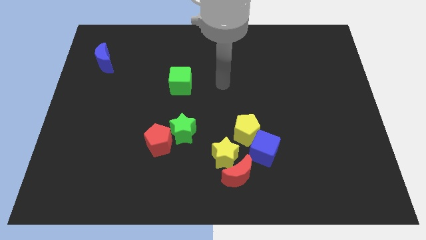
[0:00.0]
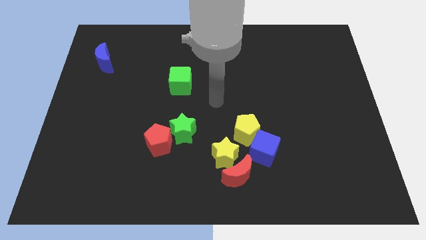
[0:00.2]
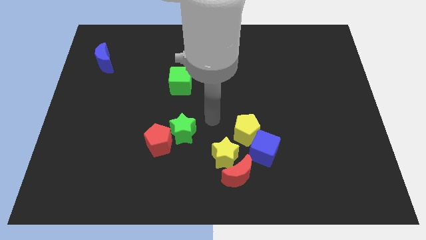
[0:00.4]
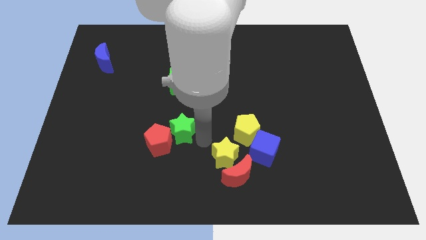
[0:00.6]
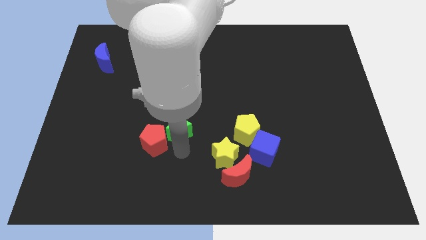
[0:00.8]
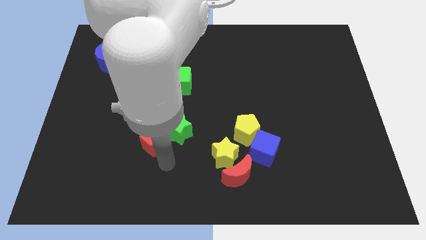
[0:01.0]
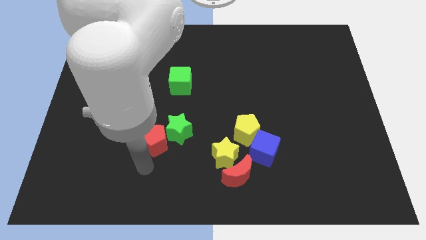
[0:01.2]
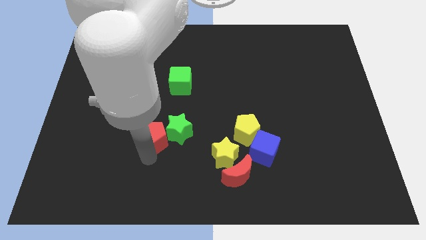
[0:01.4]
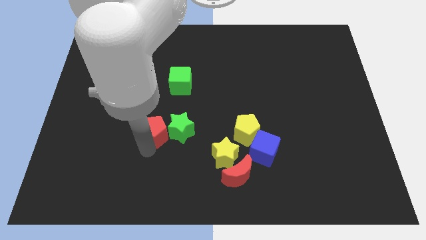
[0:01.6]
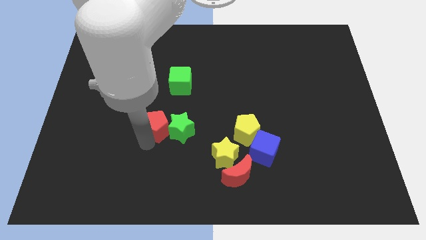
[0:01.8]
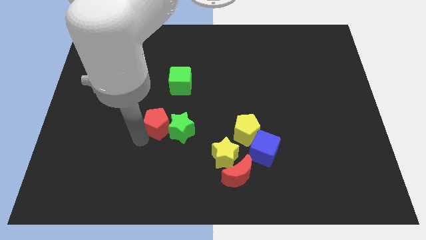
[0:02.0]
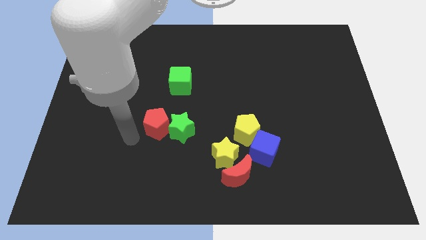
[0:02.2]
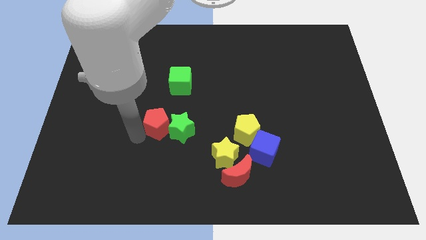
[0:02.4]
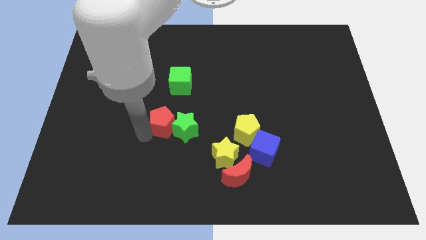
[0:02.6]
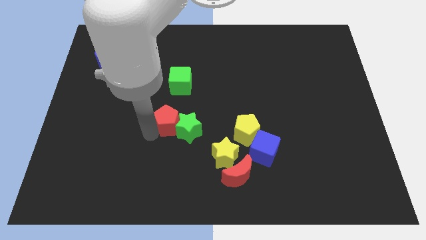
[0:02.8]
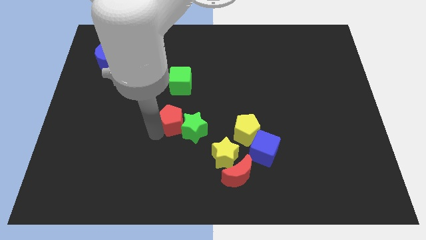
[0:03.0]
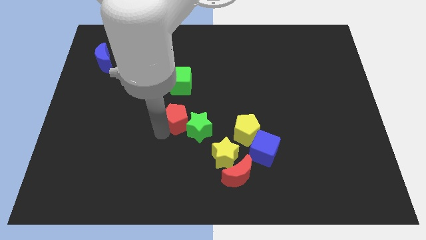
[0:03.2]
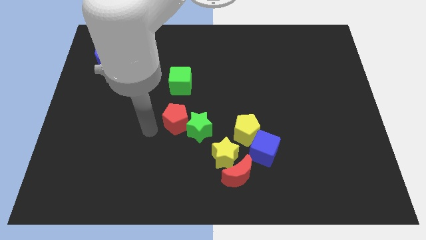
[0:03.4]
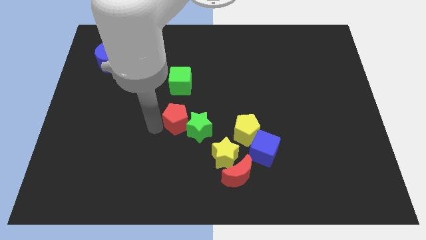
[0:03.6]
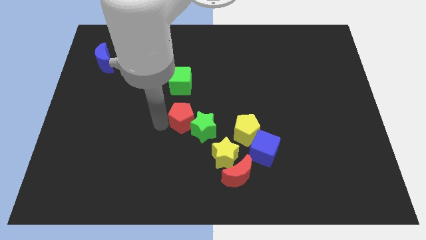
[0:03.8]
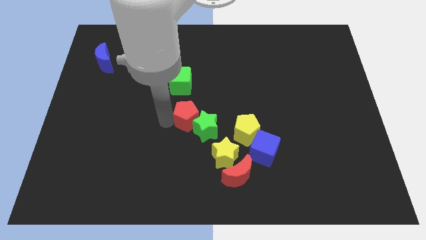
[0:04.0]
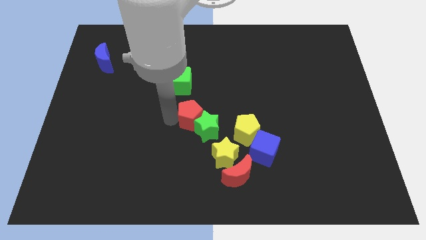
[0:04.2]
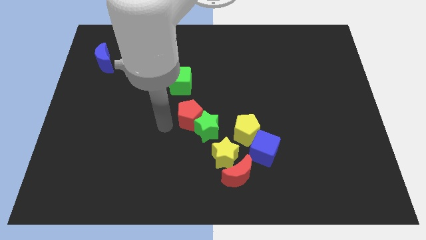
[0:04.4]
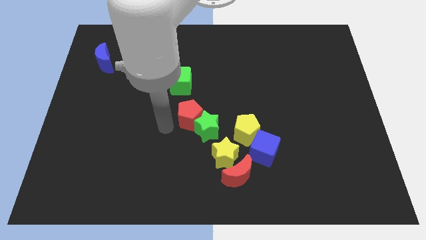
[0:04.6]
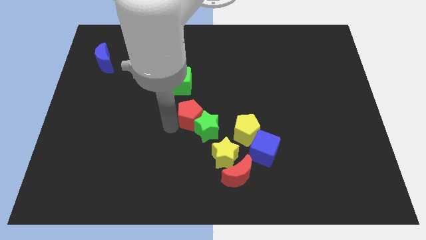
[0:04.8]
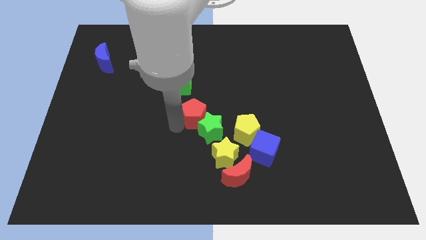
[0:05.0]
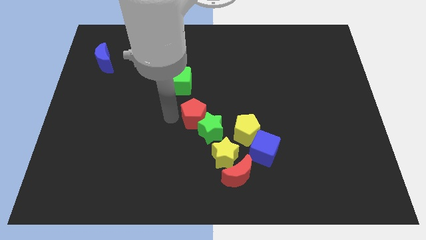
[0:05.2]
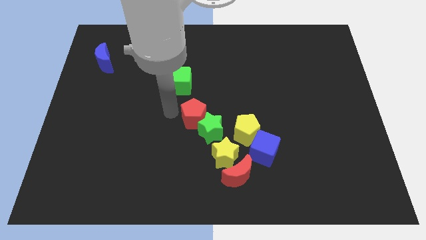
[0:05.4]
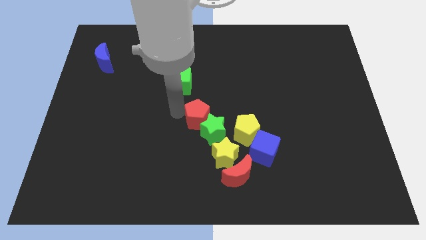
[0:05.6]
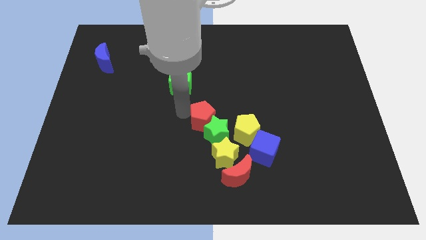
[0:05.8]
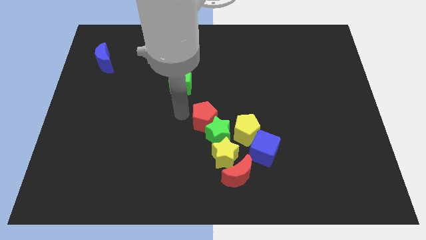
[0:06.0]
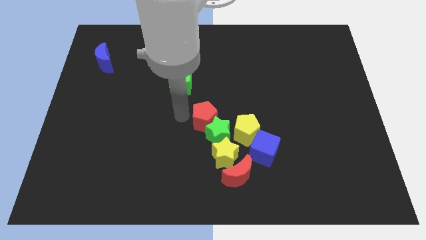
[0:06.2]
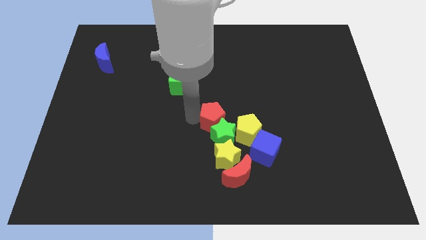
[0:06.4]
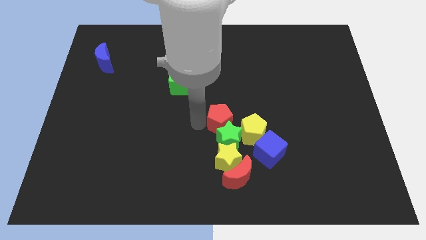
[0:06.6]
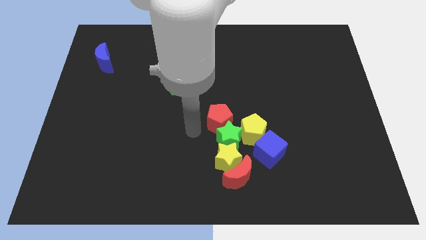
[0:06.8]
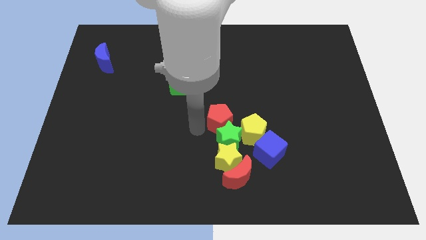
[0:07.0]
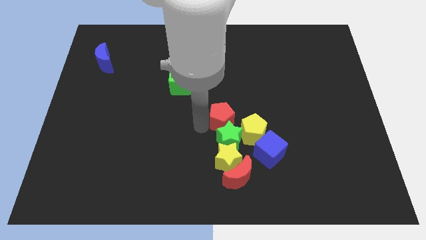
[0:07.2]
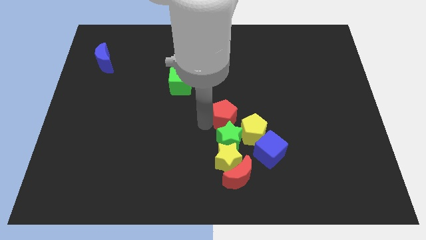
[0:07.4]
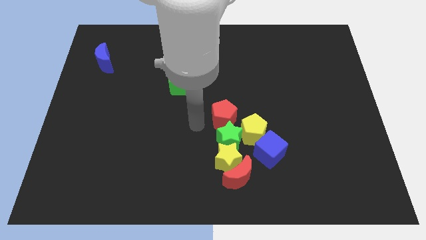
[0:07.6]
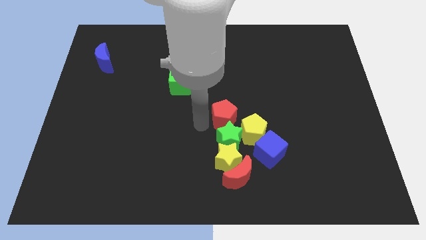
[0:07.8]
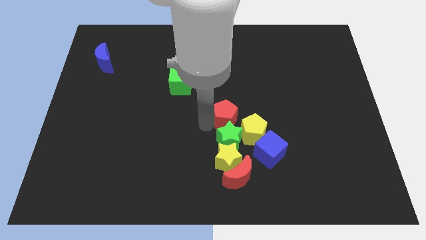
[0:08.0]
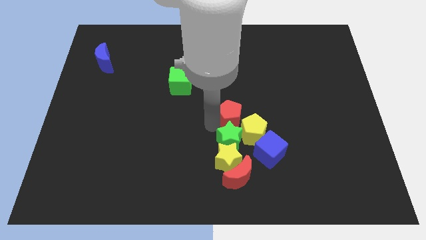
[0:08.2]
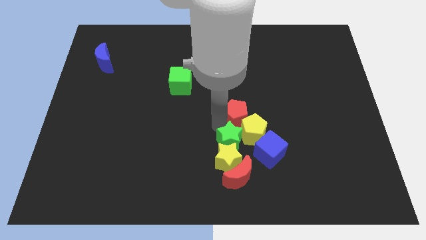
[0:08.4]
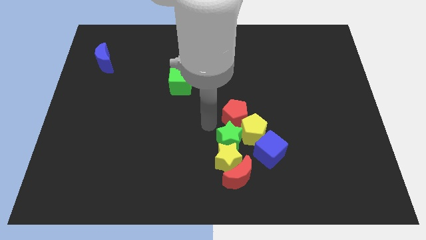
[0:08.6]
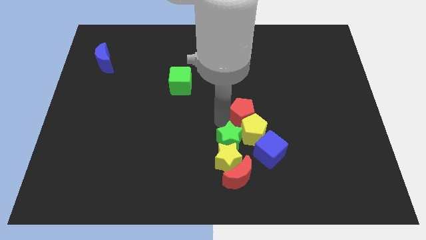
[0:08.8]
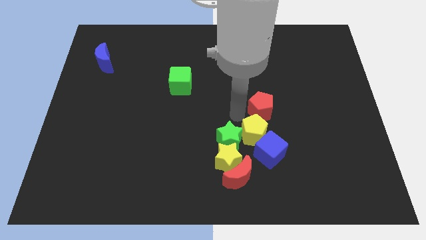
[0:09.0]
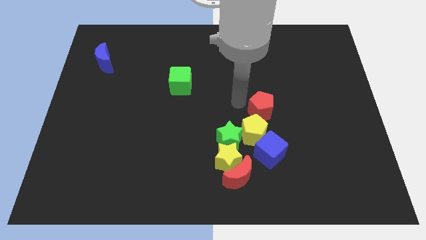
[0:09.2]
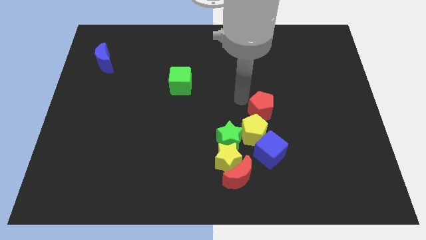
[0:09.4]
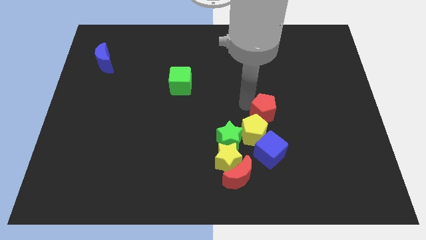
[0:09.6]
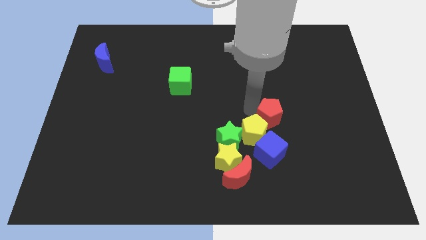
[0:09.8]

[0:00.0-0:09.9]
put the red pentagon just right of the yellow pentagon

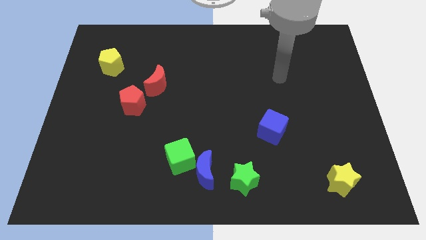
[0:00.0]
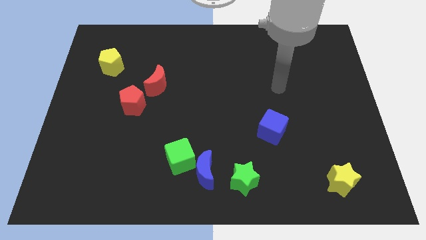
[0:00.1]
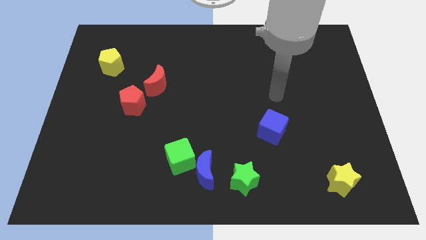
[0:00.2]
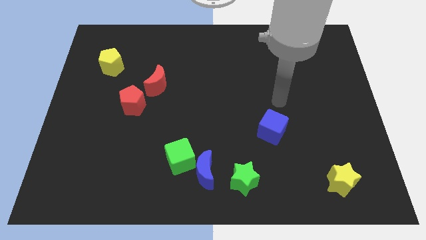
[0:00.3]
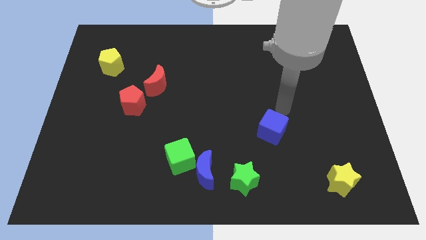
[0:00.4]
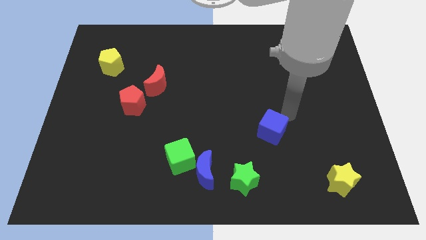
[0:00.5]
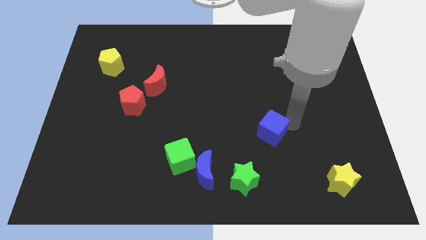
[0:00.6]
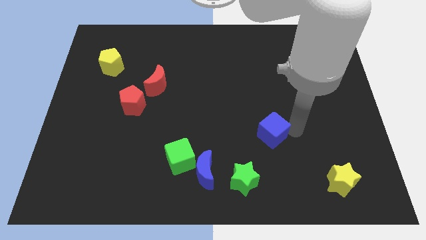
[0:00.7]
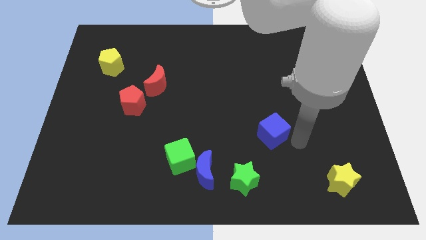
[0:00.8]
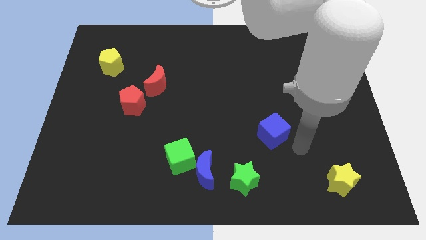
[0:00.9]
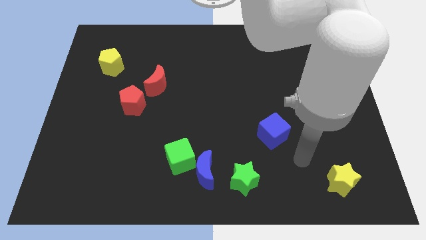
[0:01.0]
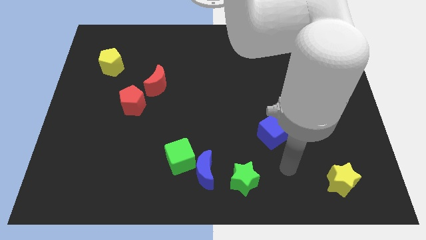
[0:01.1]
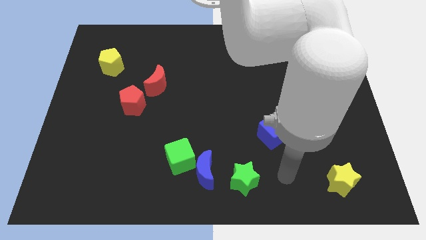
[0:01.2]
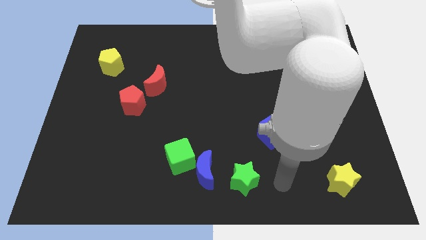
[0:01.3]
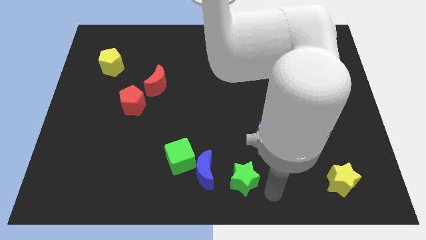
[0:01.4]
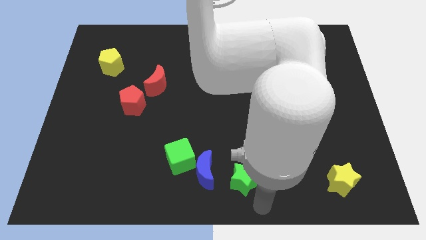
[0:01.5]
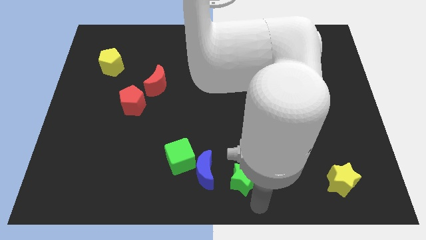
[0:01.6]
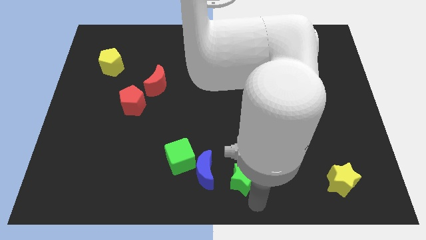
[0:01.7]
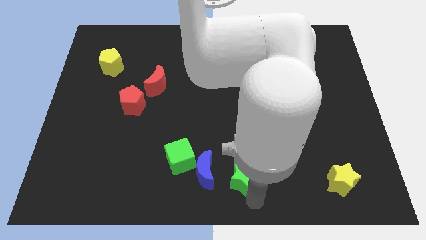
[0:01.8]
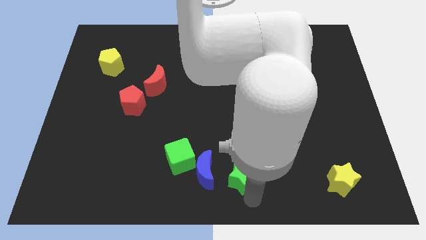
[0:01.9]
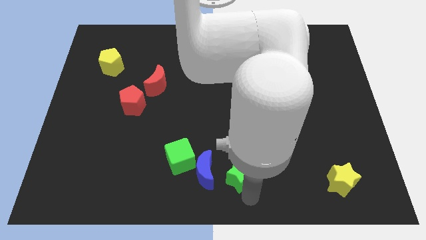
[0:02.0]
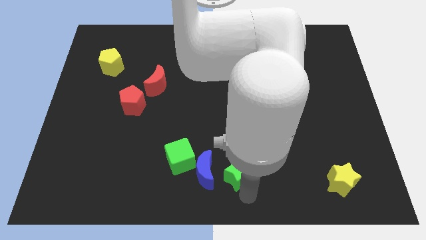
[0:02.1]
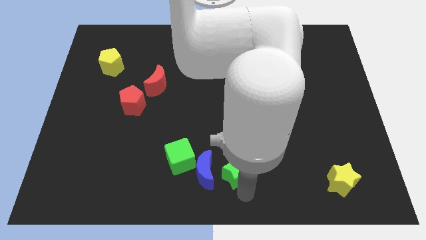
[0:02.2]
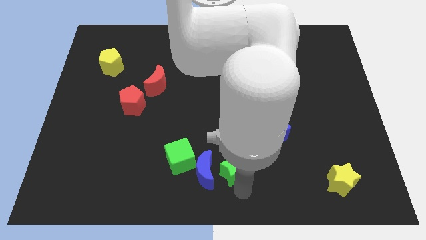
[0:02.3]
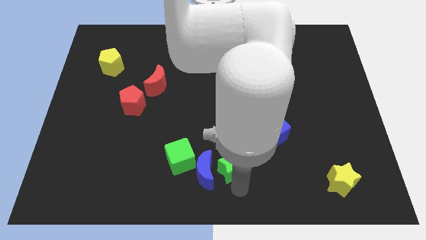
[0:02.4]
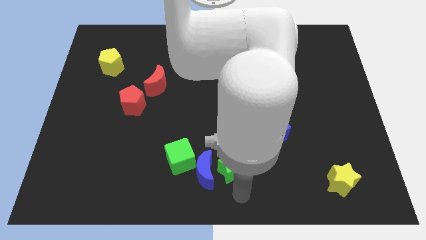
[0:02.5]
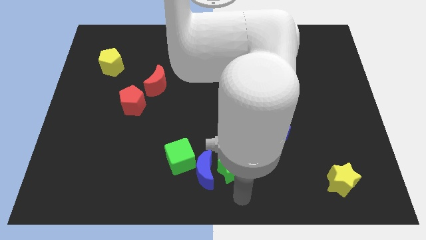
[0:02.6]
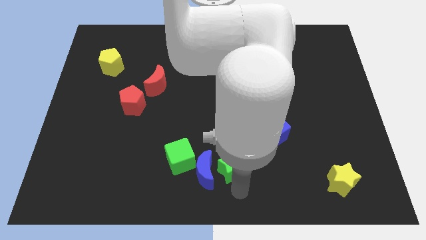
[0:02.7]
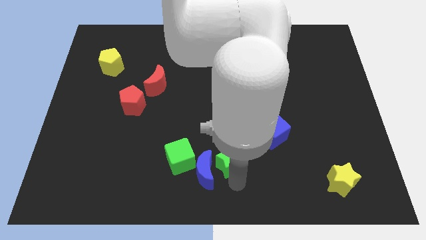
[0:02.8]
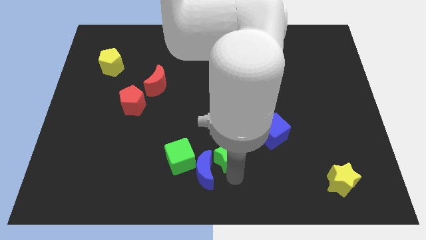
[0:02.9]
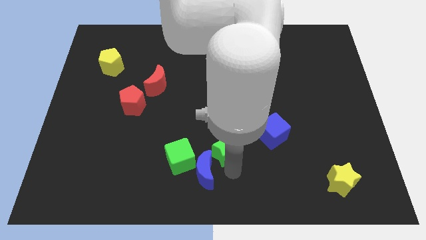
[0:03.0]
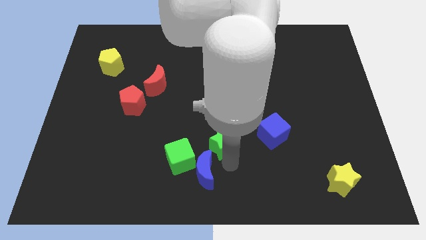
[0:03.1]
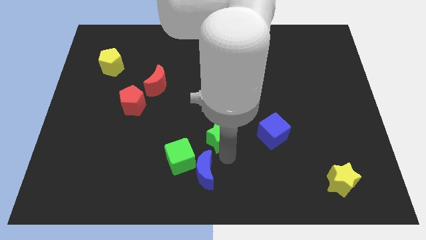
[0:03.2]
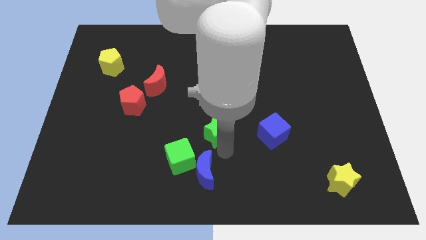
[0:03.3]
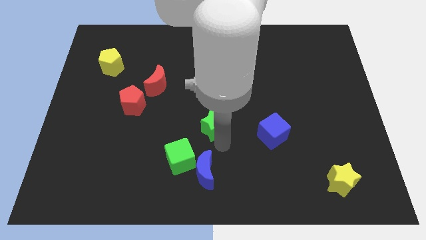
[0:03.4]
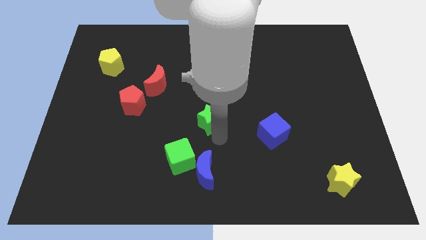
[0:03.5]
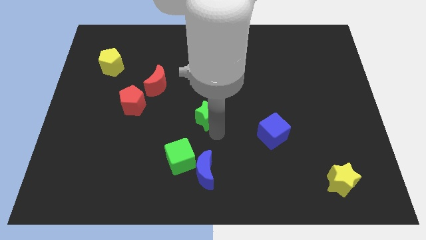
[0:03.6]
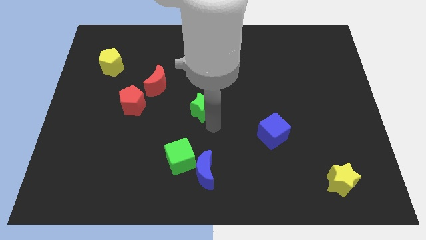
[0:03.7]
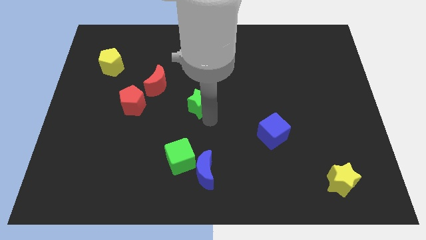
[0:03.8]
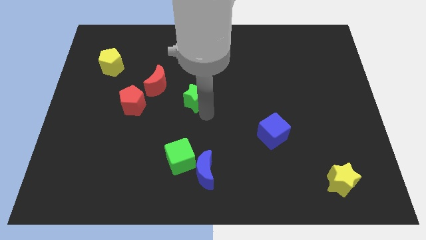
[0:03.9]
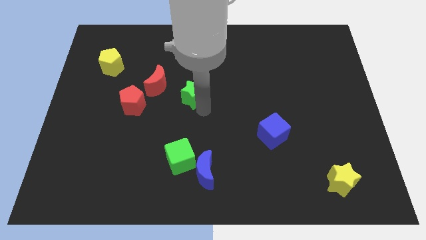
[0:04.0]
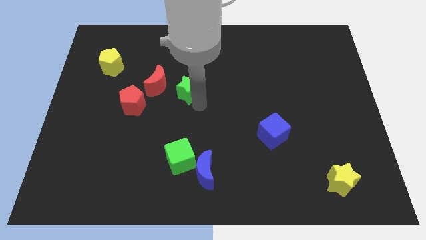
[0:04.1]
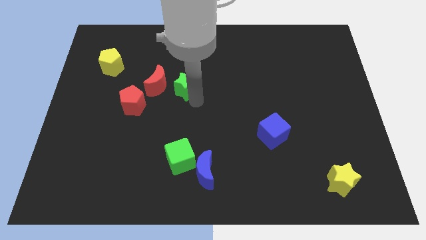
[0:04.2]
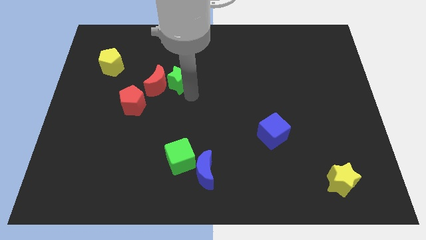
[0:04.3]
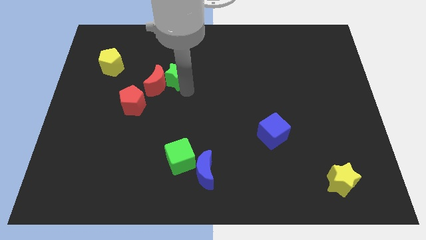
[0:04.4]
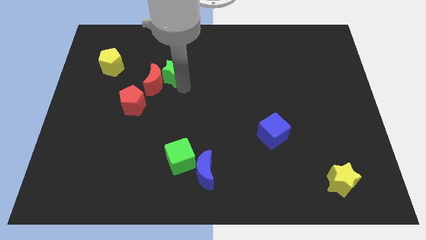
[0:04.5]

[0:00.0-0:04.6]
move the green star above the red moon
